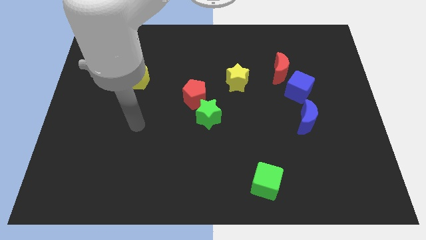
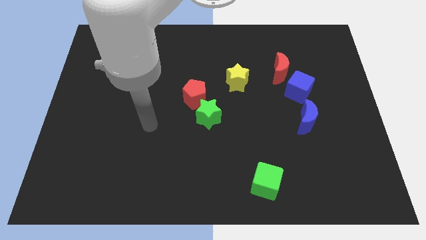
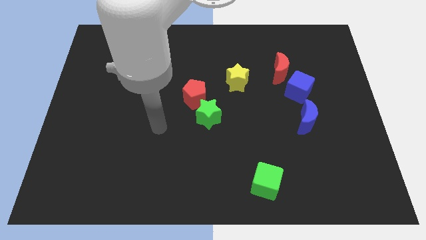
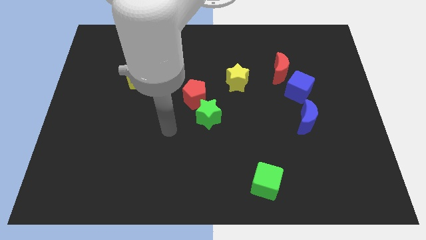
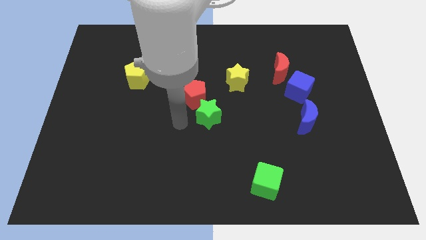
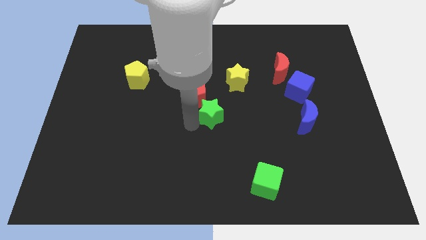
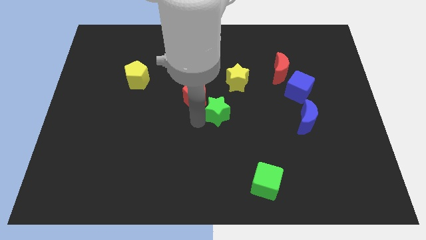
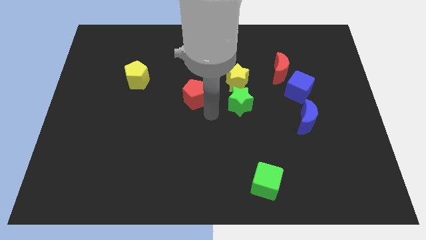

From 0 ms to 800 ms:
pull the red pentagon apart from the green star

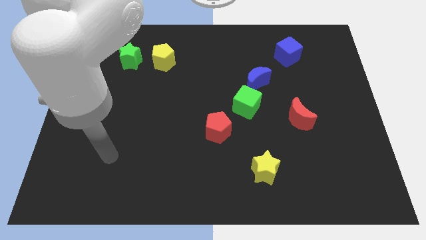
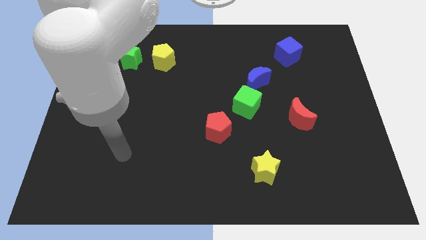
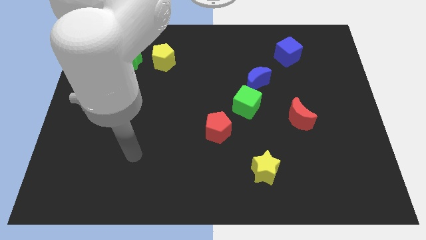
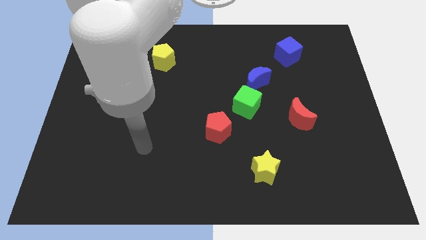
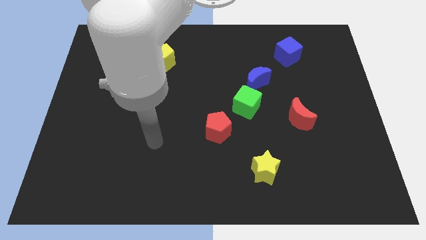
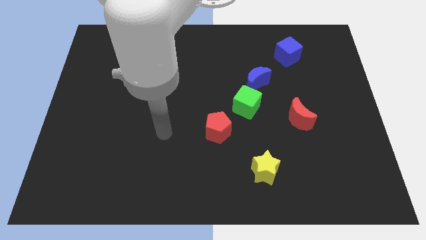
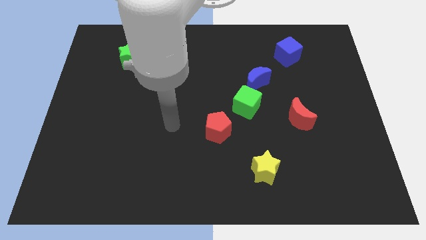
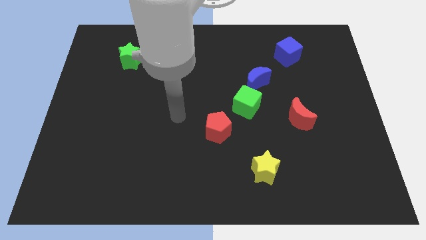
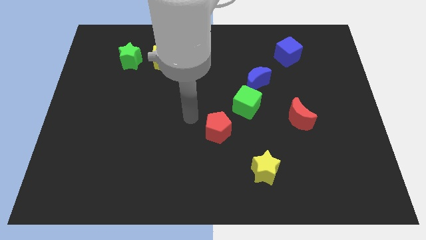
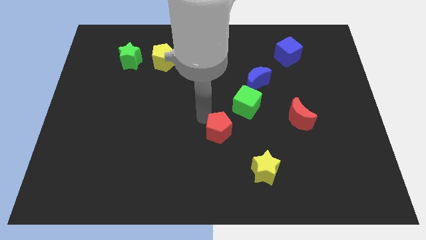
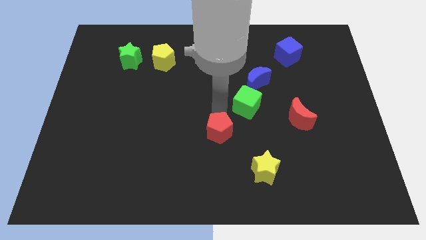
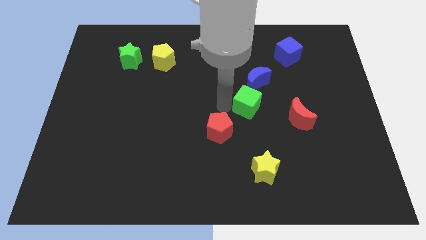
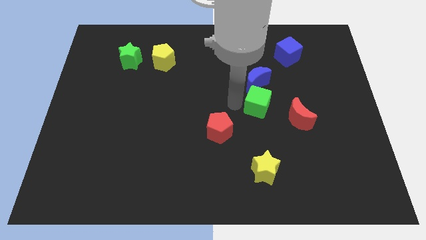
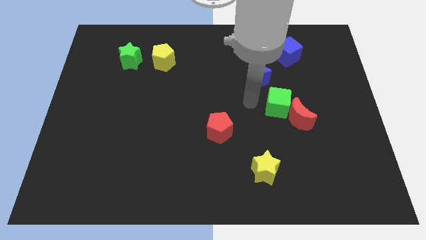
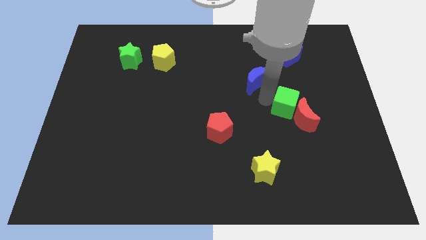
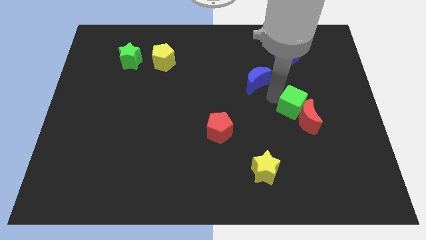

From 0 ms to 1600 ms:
move the blue moon away from the green cube

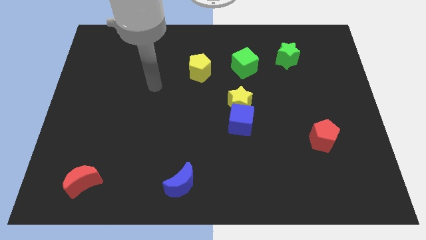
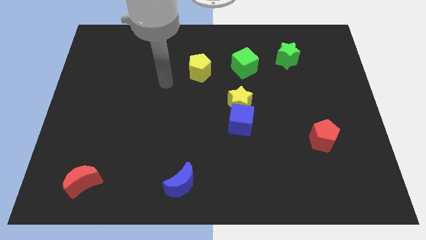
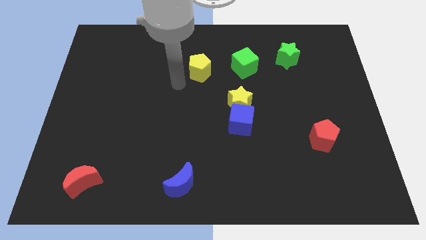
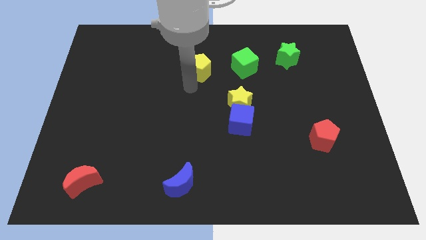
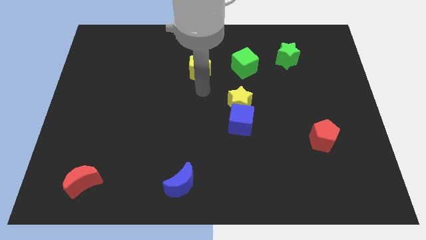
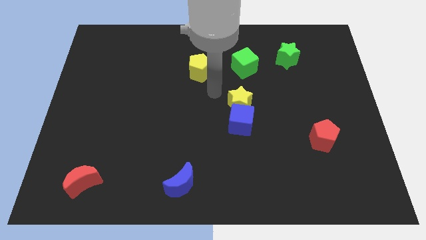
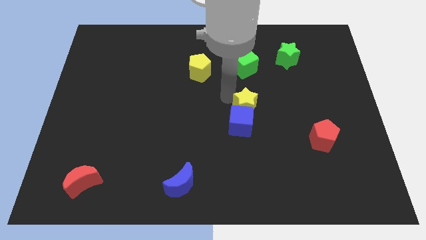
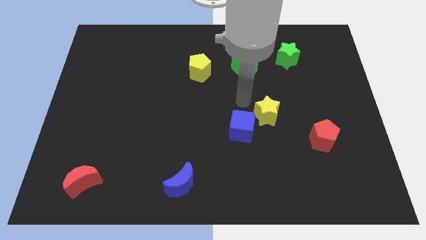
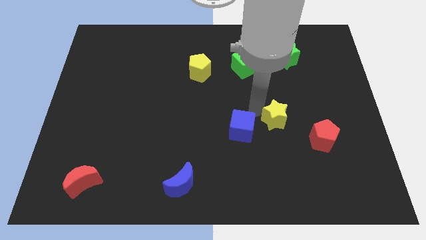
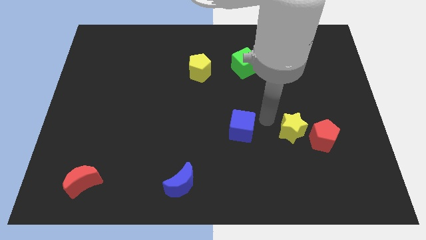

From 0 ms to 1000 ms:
pull the blue cube apart from the yellow star

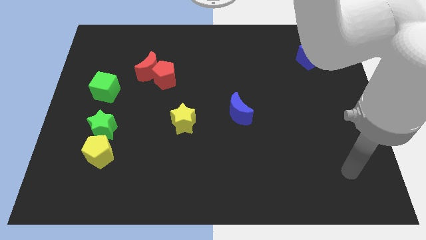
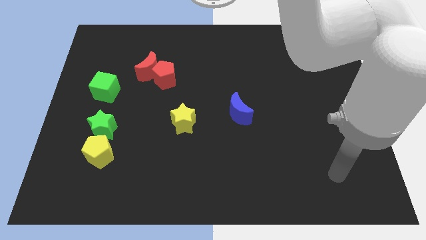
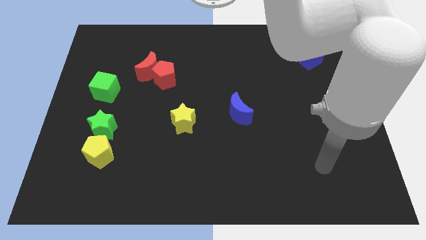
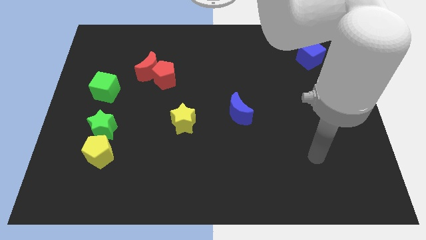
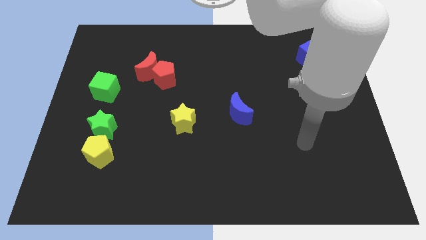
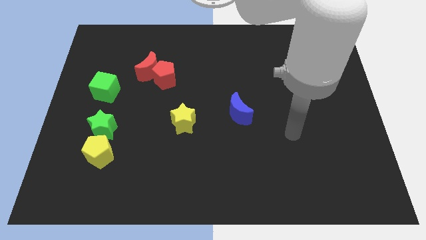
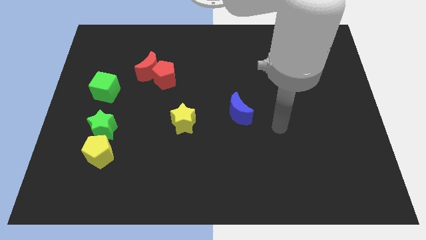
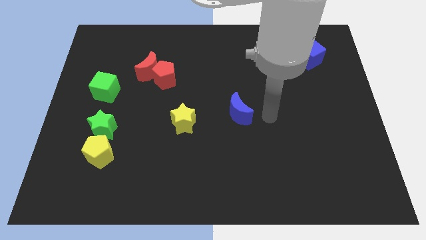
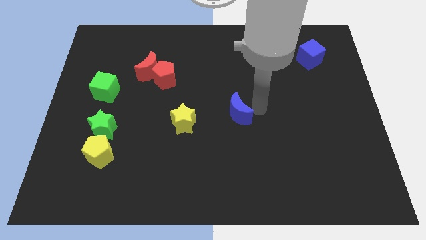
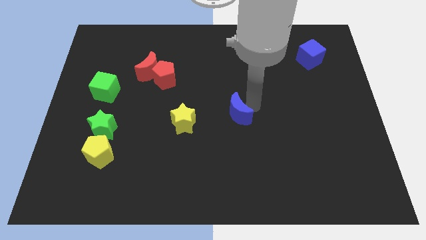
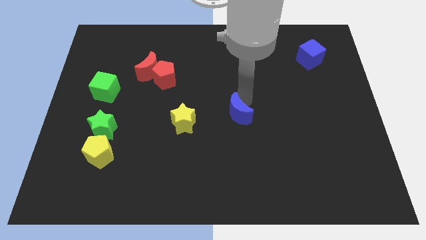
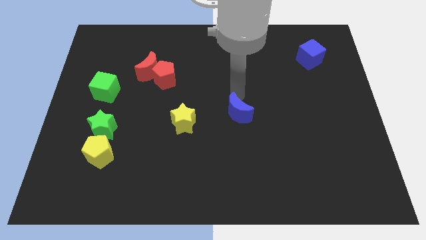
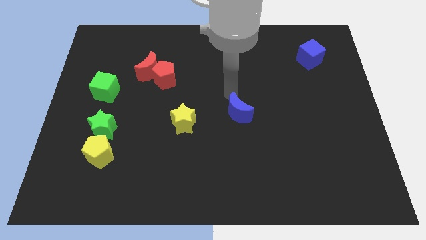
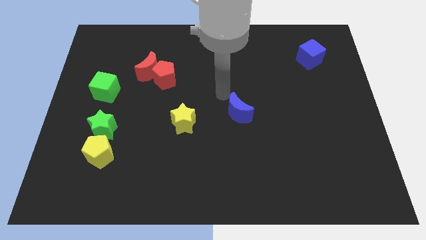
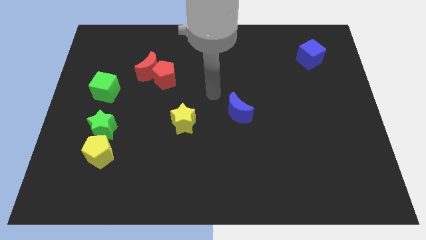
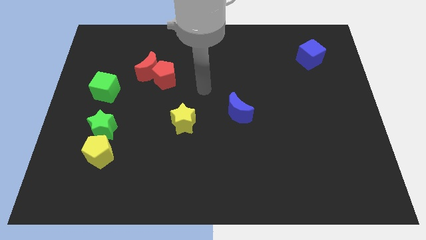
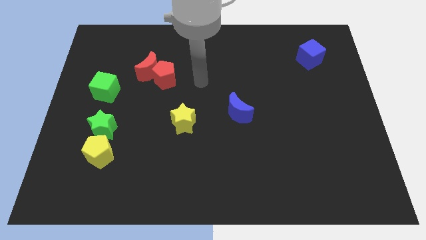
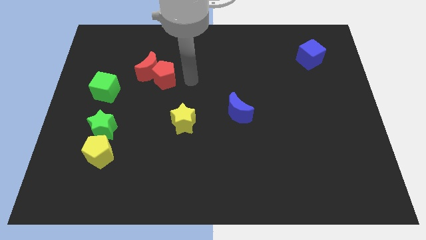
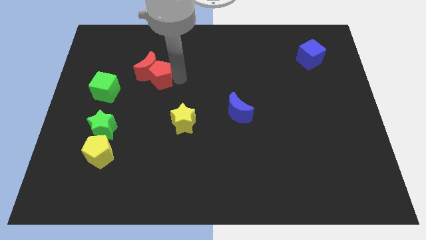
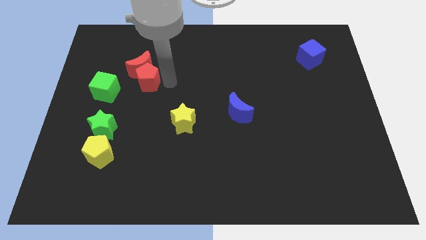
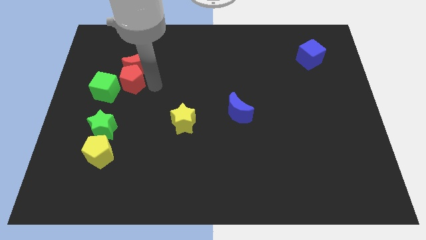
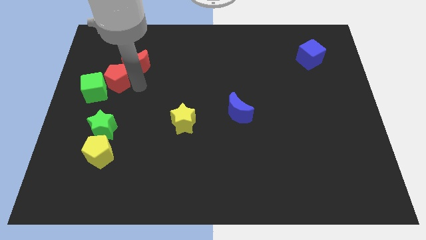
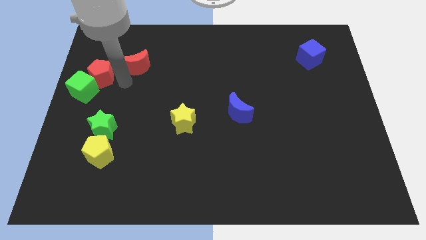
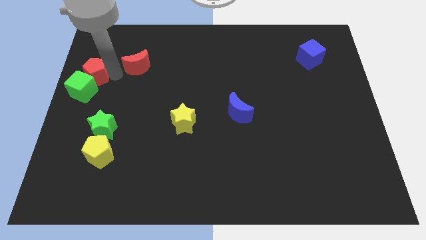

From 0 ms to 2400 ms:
separate the red moon from the red pentagon

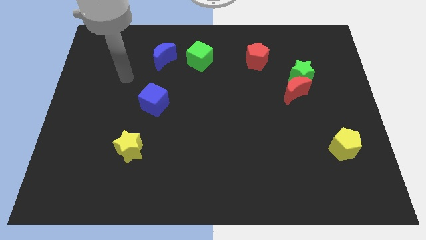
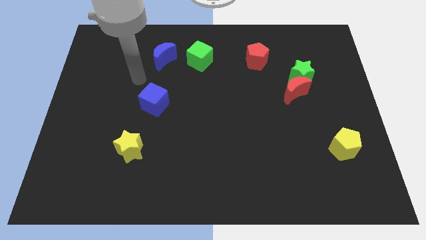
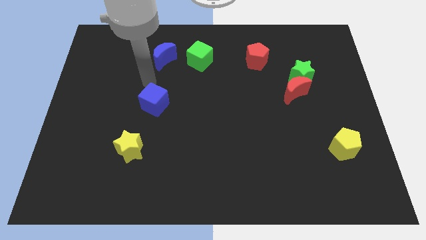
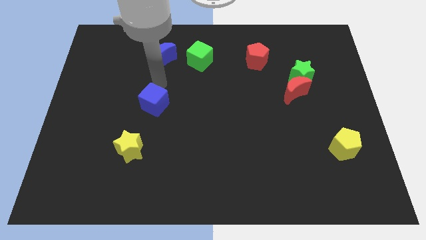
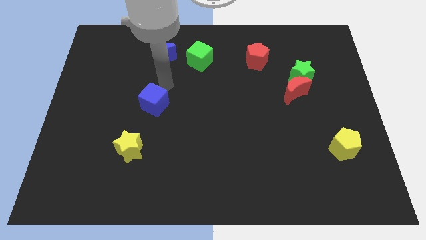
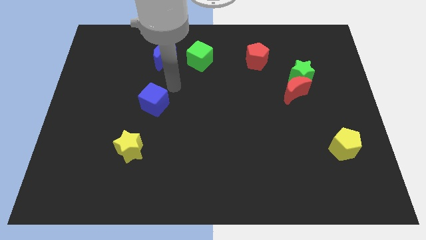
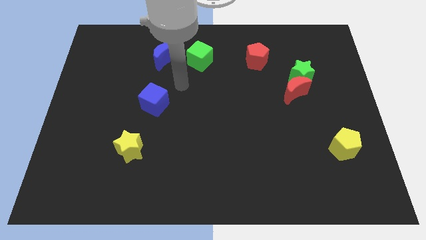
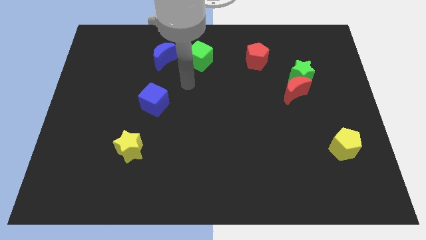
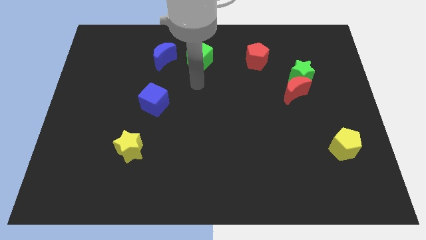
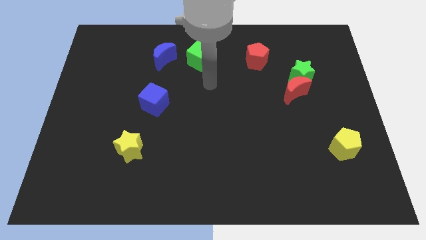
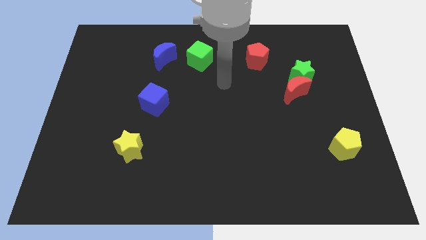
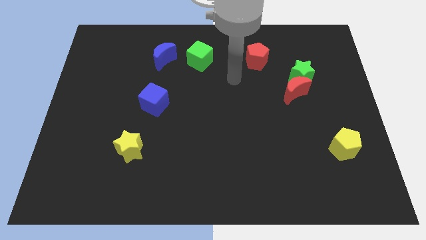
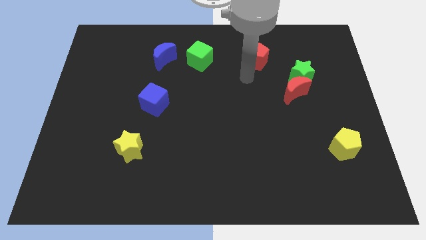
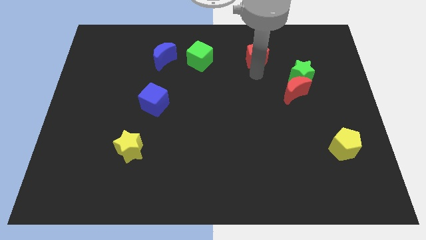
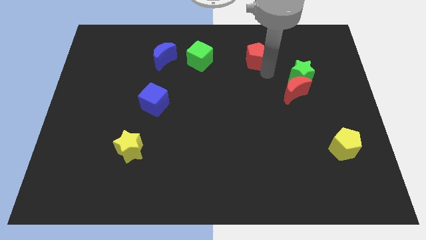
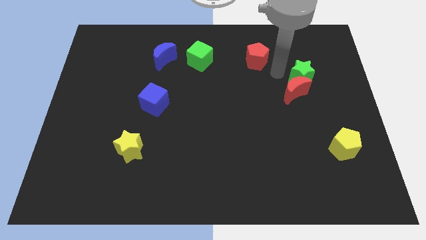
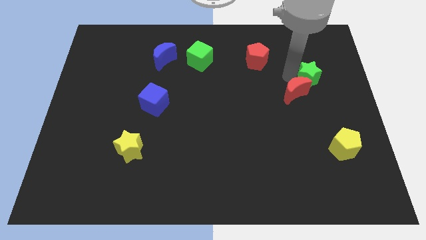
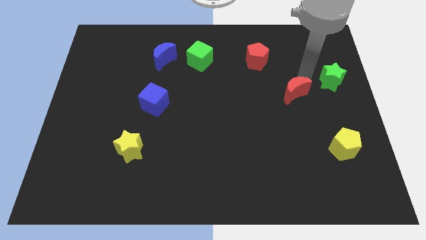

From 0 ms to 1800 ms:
pull the red moon apart from the green star

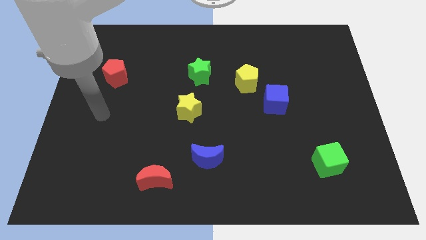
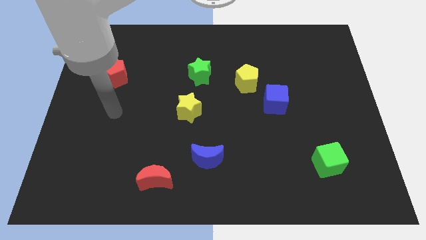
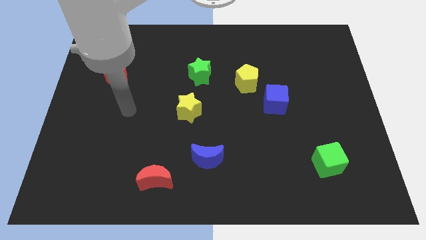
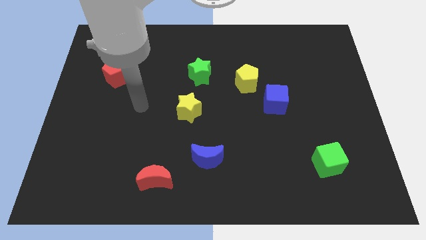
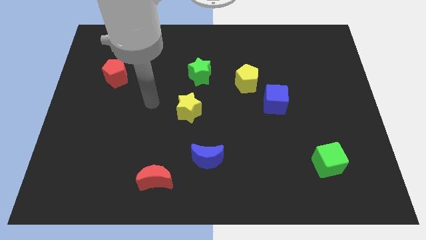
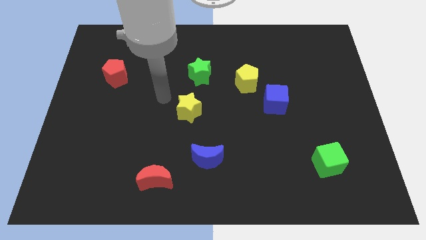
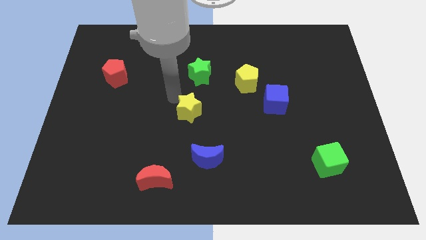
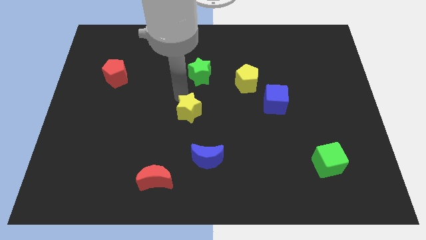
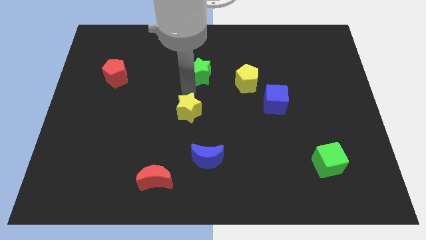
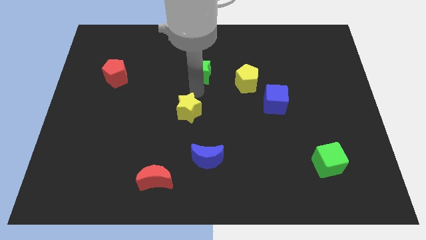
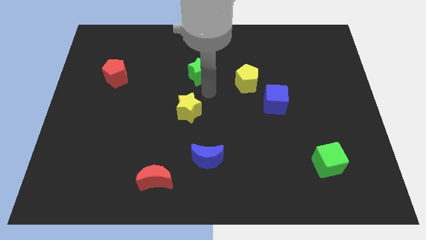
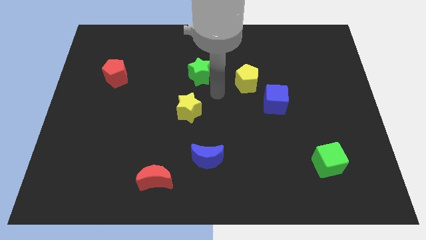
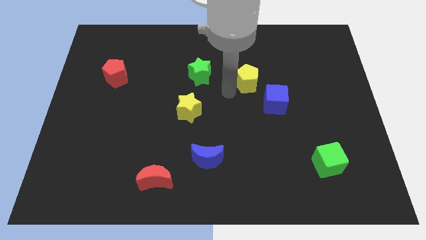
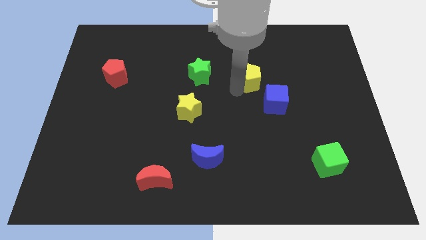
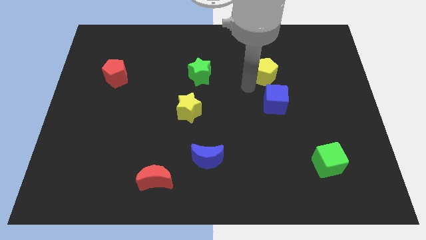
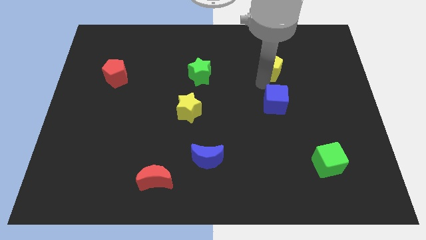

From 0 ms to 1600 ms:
move the blue cube away from the yellow pentagon
